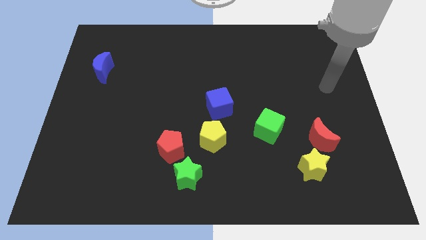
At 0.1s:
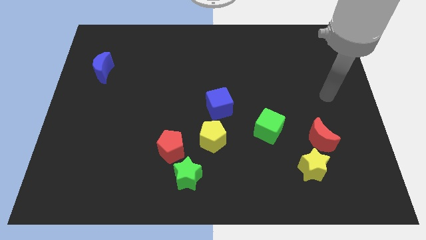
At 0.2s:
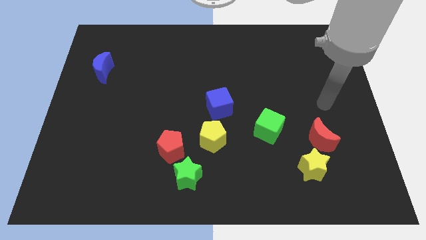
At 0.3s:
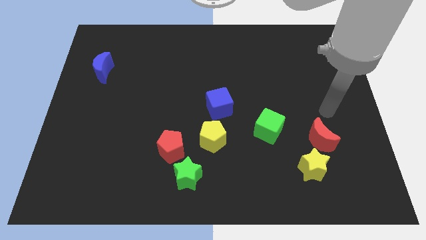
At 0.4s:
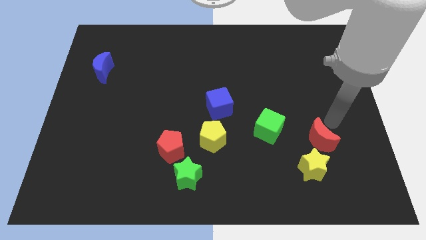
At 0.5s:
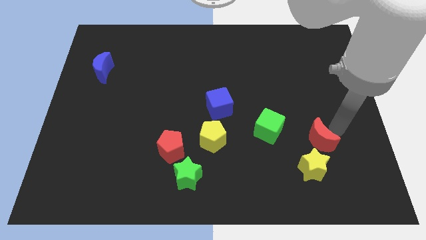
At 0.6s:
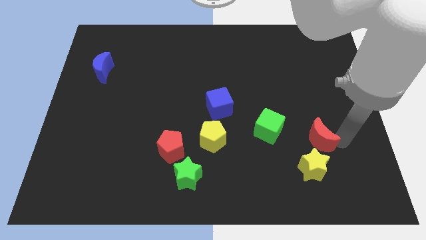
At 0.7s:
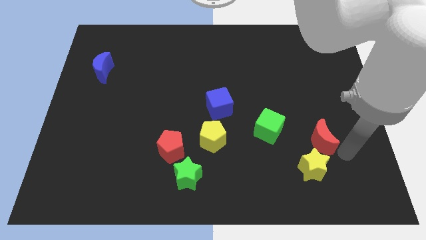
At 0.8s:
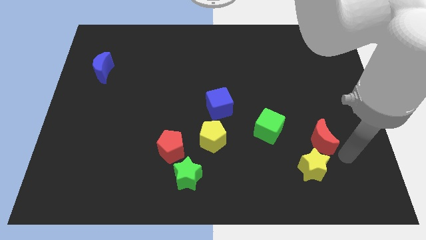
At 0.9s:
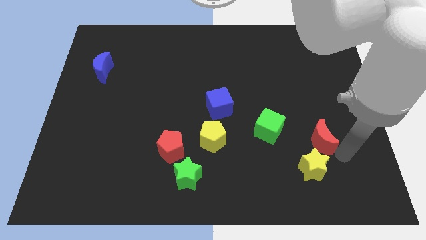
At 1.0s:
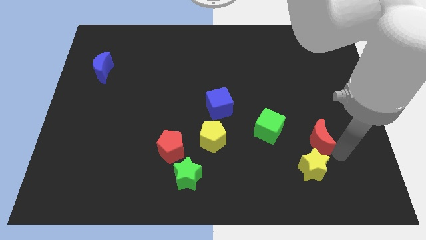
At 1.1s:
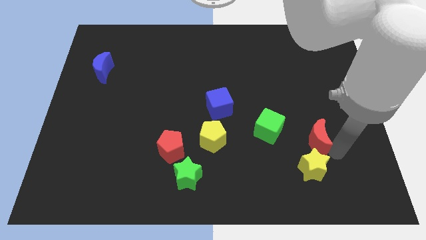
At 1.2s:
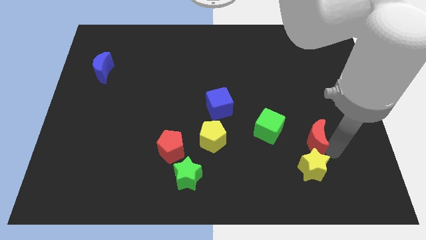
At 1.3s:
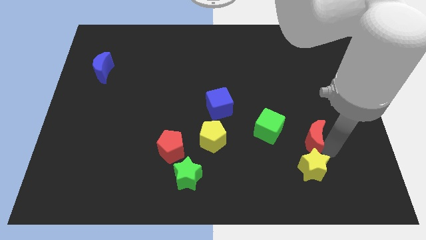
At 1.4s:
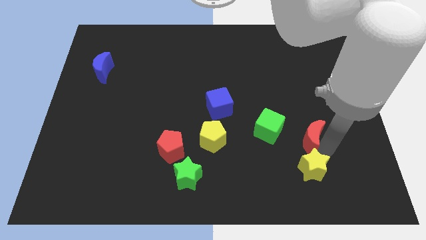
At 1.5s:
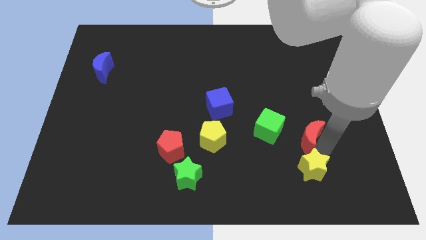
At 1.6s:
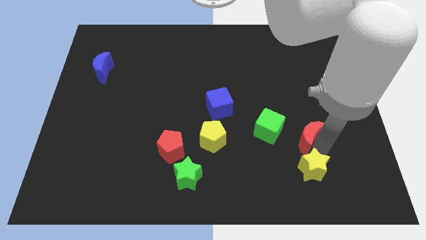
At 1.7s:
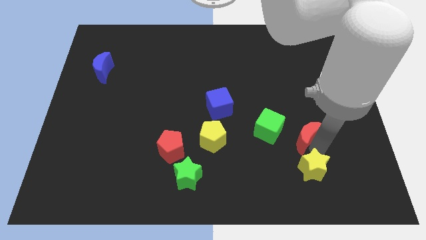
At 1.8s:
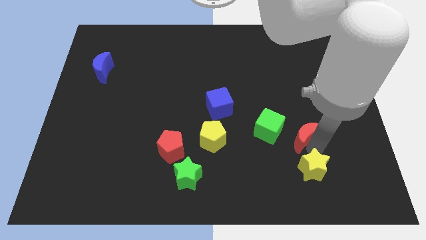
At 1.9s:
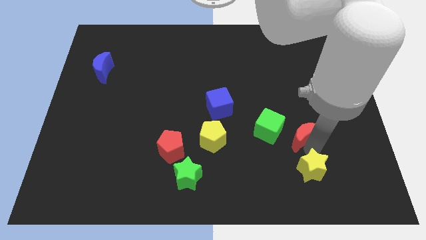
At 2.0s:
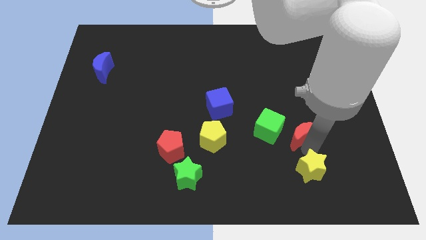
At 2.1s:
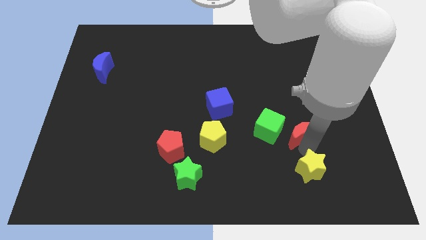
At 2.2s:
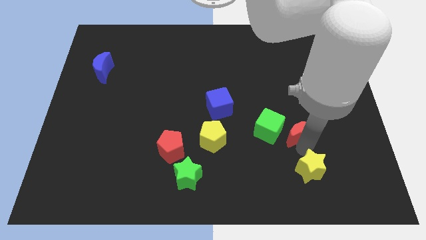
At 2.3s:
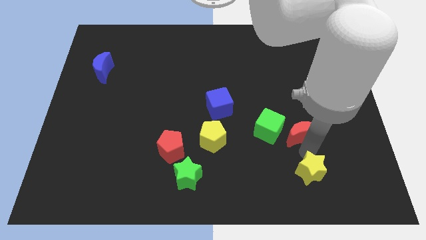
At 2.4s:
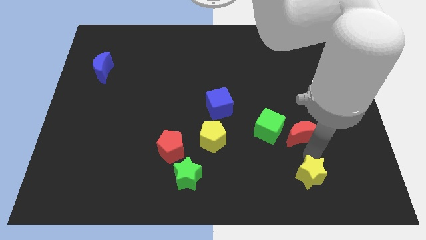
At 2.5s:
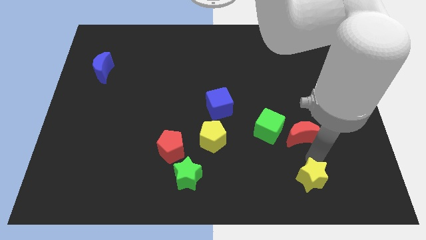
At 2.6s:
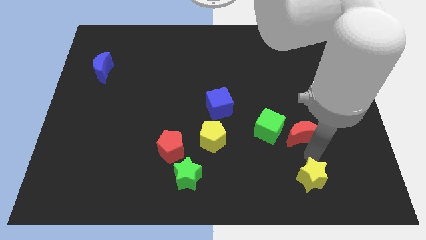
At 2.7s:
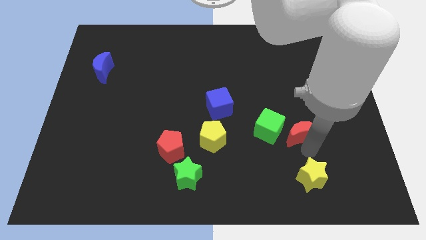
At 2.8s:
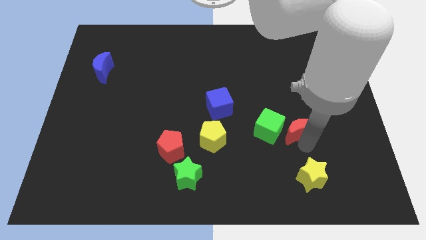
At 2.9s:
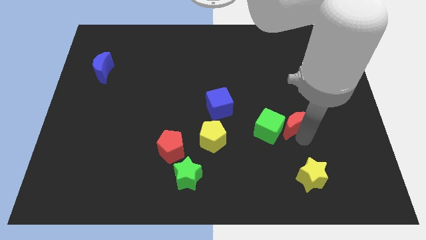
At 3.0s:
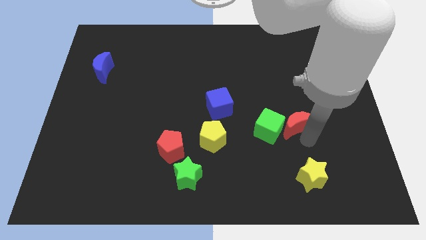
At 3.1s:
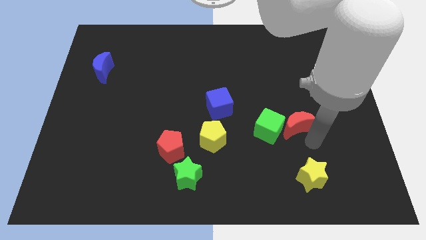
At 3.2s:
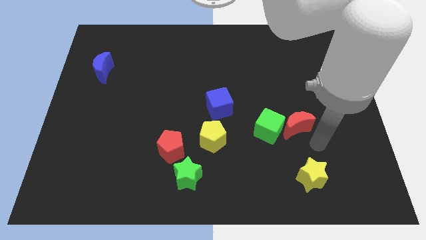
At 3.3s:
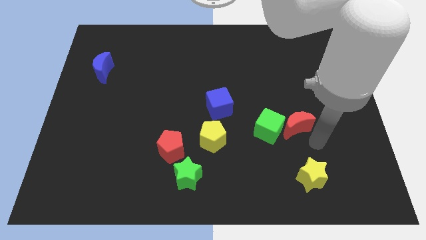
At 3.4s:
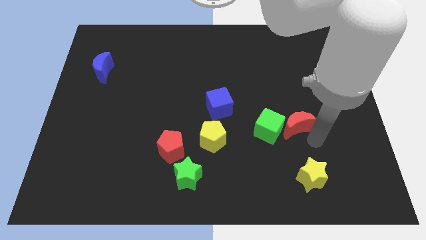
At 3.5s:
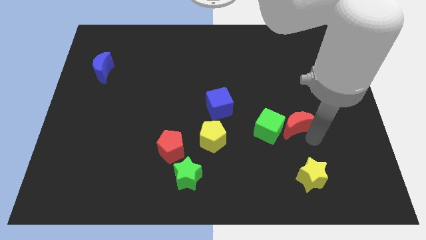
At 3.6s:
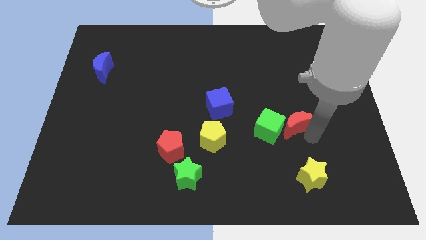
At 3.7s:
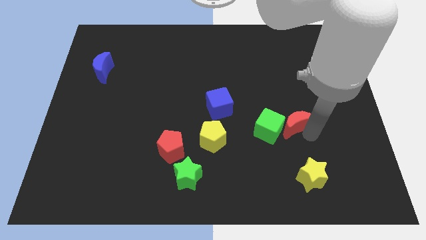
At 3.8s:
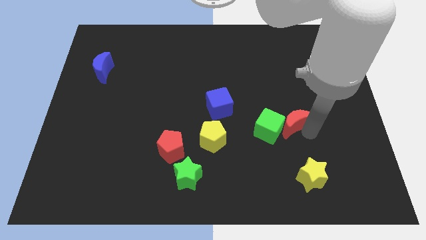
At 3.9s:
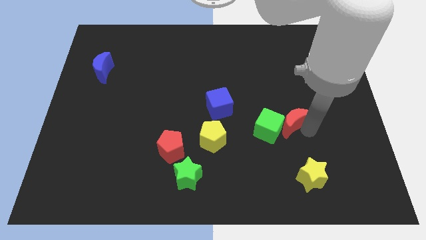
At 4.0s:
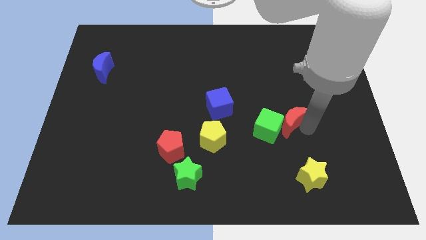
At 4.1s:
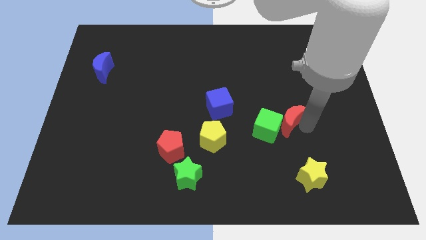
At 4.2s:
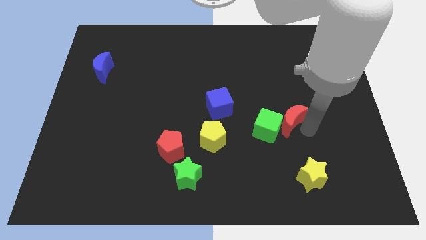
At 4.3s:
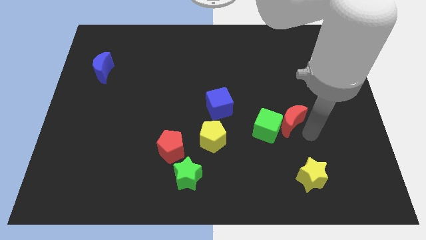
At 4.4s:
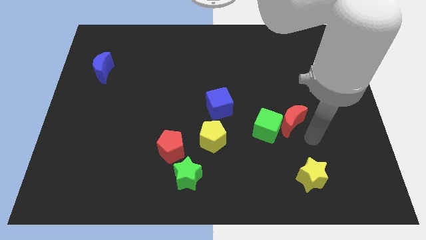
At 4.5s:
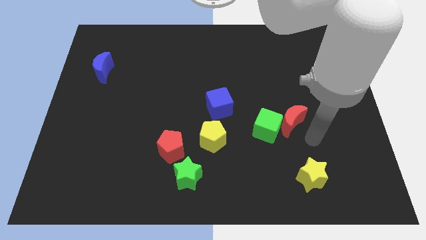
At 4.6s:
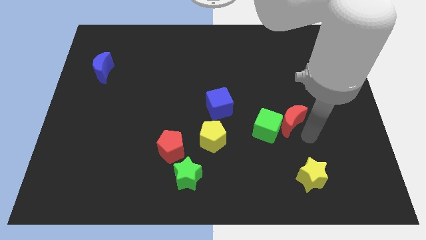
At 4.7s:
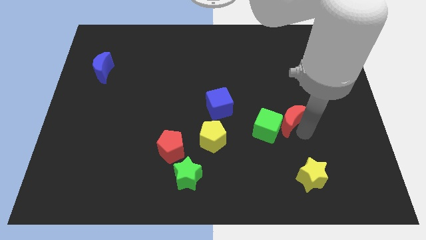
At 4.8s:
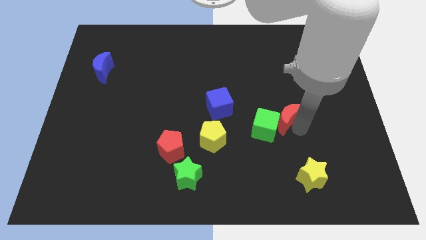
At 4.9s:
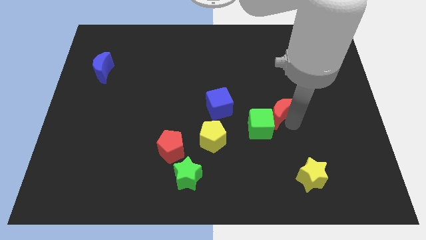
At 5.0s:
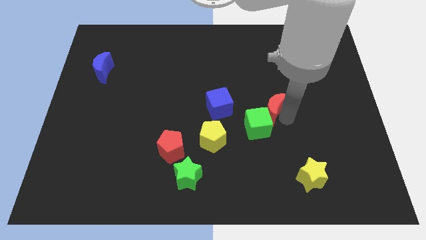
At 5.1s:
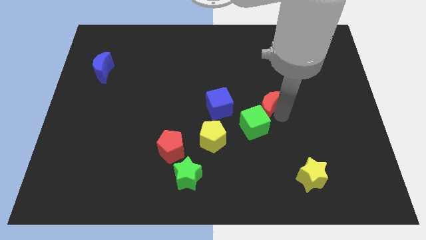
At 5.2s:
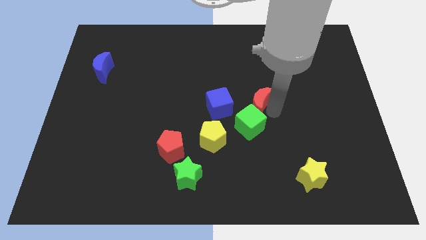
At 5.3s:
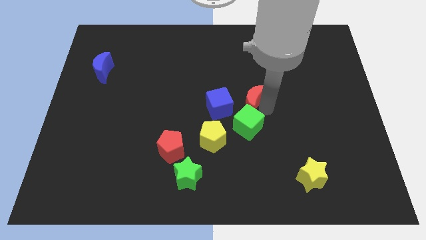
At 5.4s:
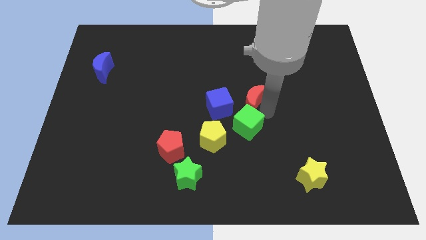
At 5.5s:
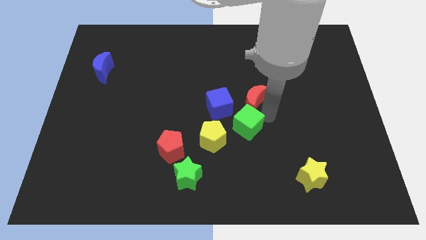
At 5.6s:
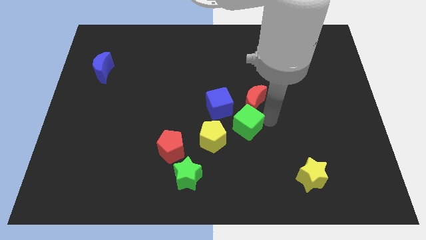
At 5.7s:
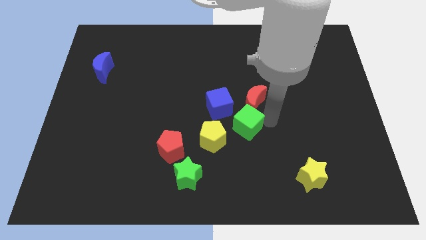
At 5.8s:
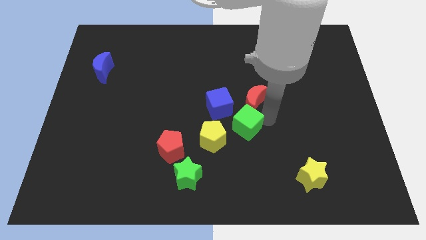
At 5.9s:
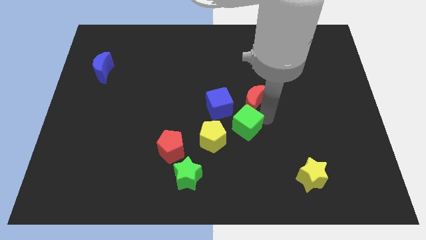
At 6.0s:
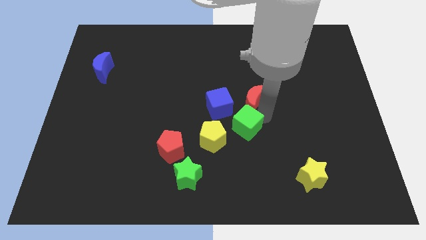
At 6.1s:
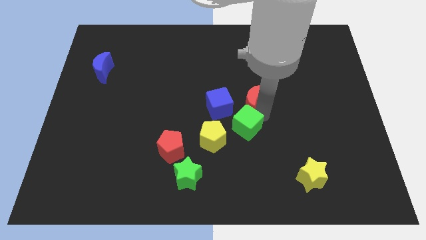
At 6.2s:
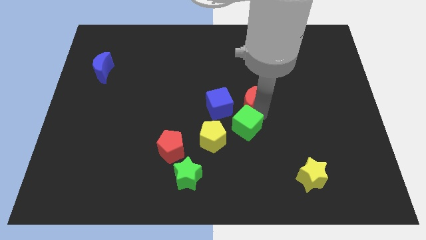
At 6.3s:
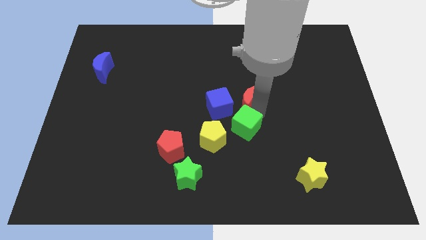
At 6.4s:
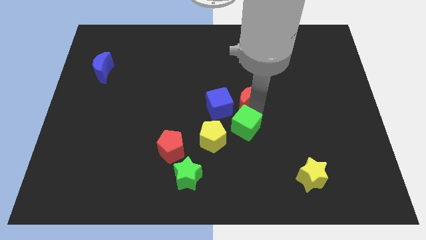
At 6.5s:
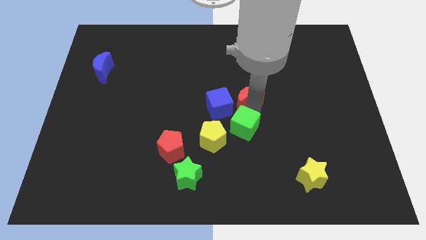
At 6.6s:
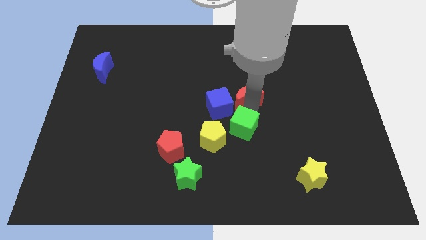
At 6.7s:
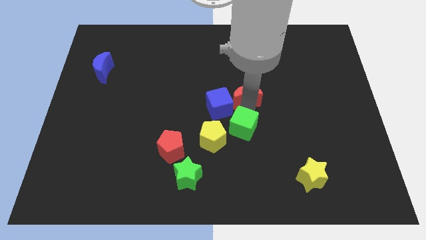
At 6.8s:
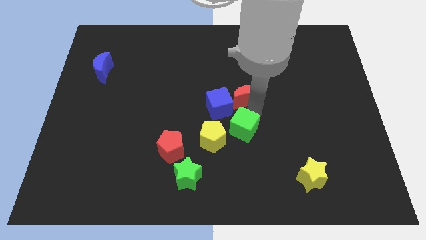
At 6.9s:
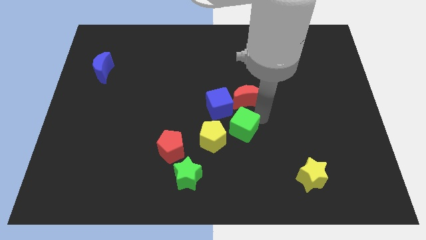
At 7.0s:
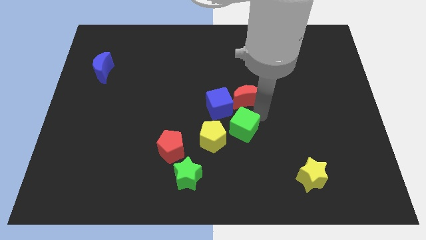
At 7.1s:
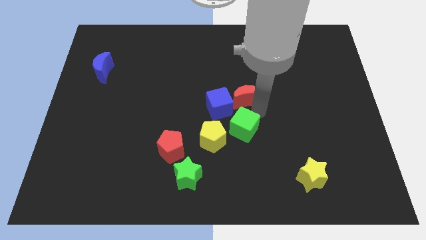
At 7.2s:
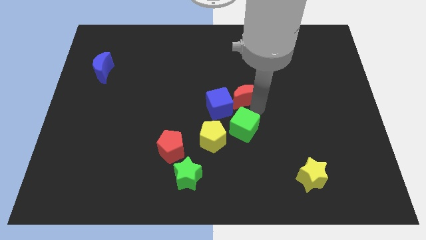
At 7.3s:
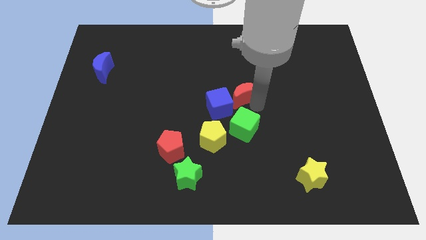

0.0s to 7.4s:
slide the red moon upwards and then left

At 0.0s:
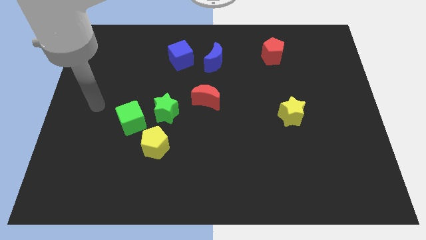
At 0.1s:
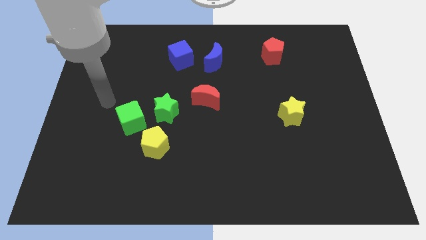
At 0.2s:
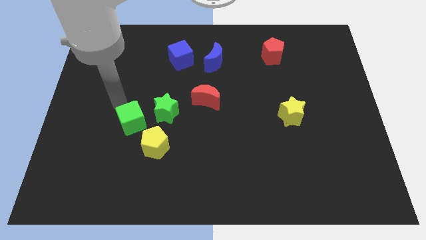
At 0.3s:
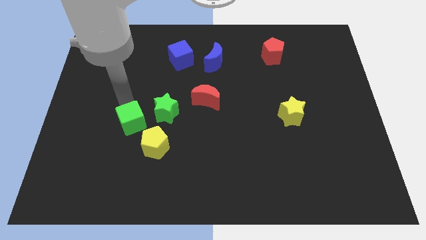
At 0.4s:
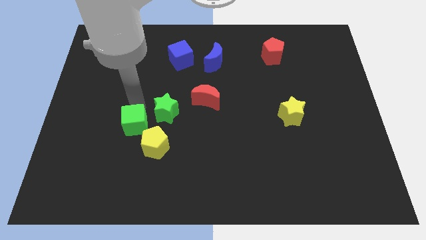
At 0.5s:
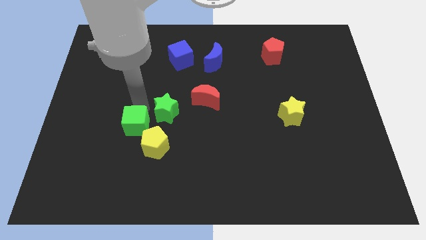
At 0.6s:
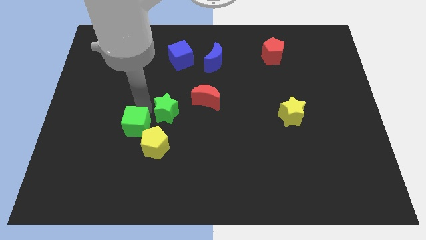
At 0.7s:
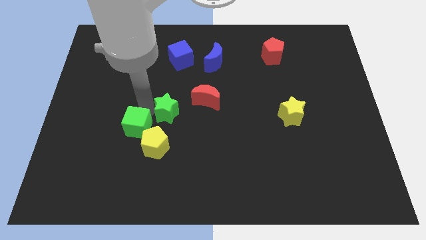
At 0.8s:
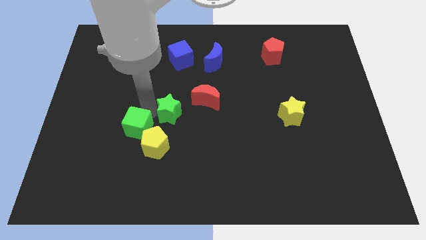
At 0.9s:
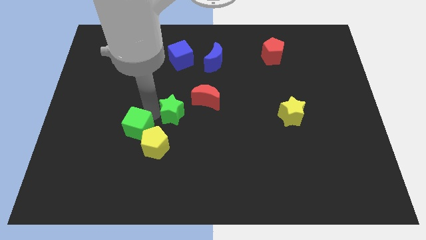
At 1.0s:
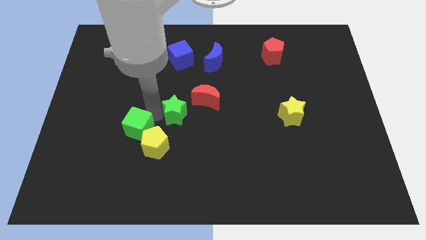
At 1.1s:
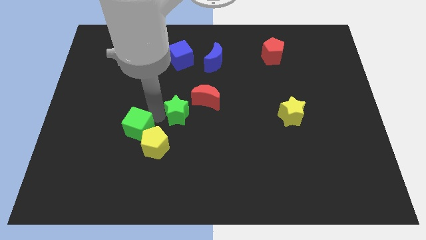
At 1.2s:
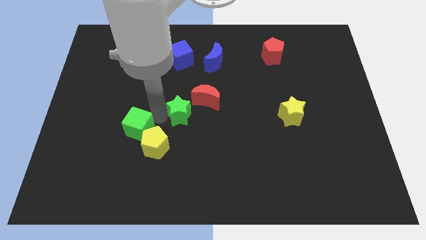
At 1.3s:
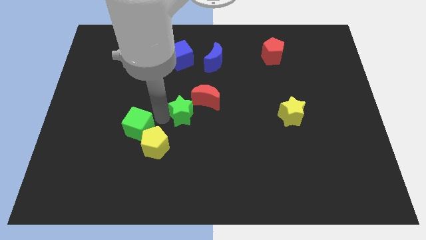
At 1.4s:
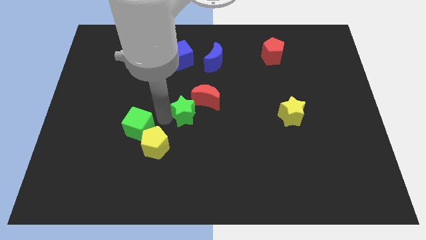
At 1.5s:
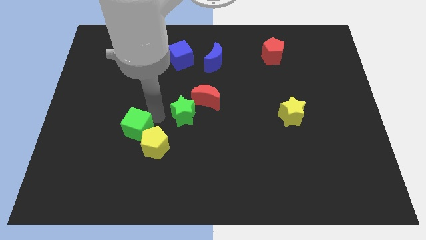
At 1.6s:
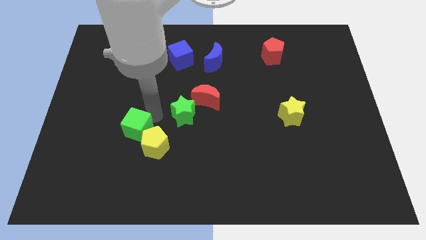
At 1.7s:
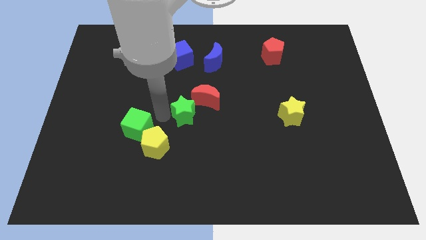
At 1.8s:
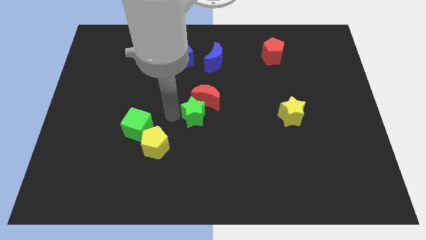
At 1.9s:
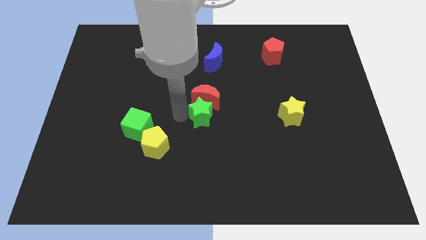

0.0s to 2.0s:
push the green star right somewhat
